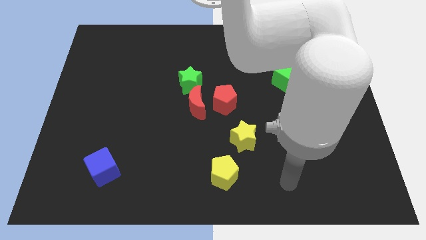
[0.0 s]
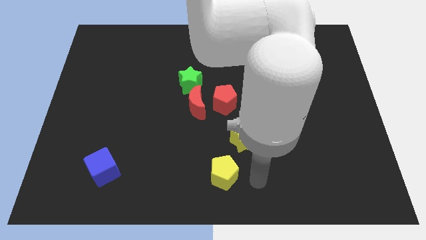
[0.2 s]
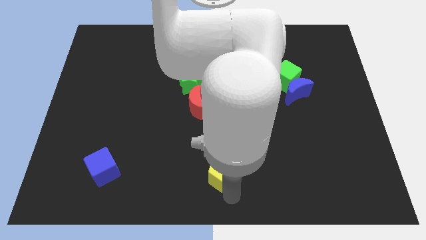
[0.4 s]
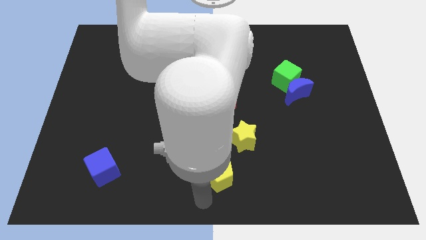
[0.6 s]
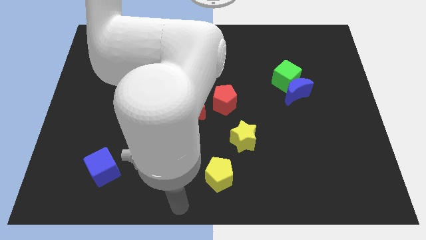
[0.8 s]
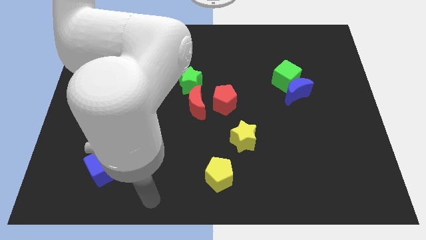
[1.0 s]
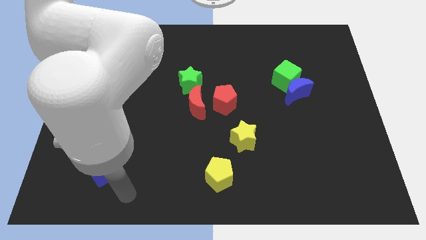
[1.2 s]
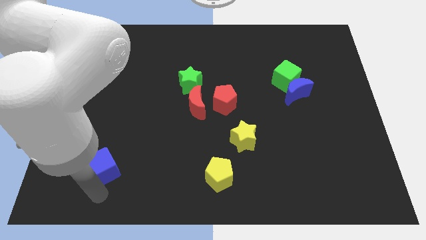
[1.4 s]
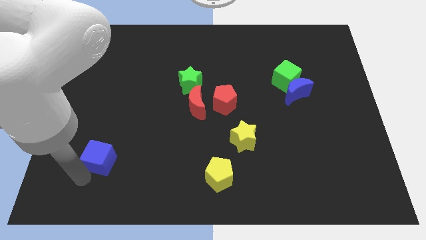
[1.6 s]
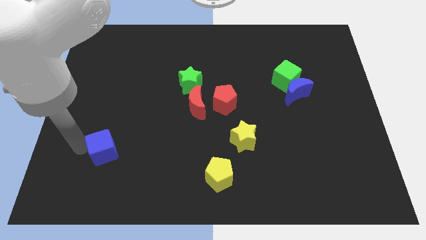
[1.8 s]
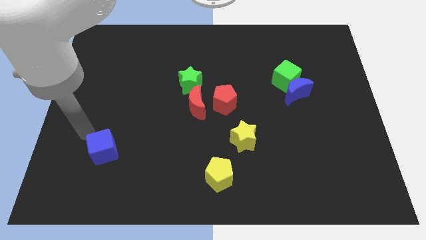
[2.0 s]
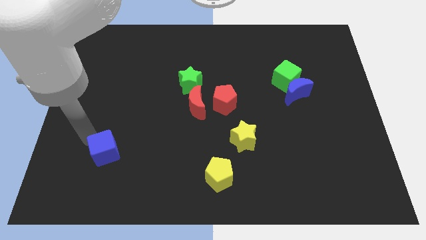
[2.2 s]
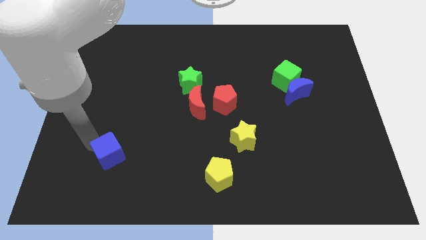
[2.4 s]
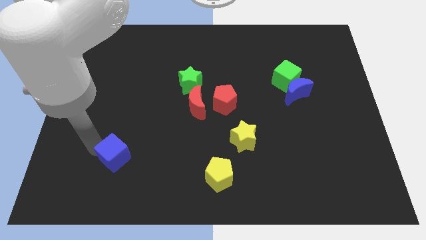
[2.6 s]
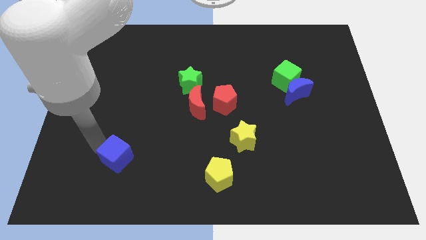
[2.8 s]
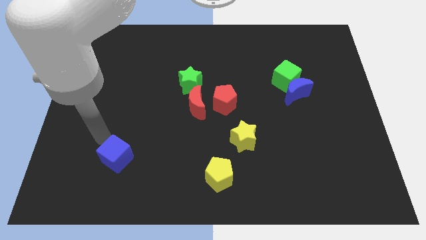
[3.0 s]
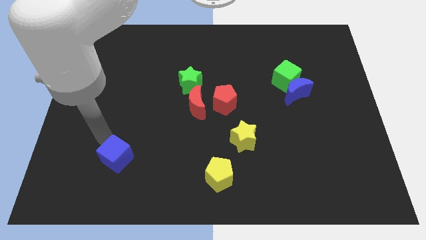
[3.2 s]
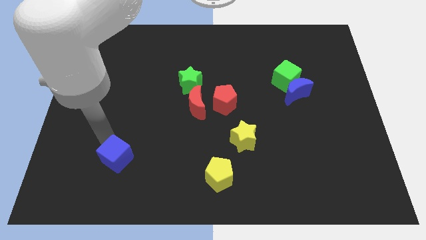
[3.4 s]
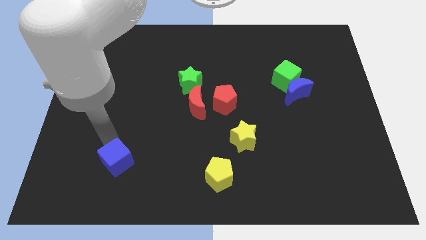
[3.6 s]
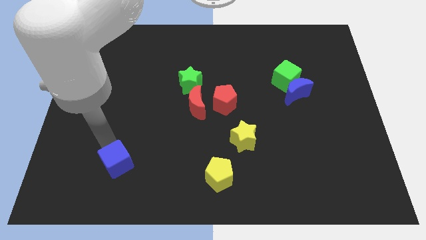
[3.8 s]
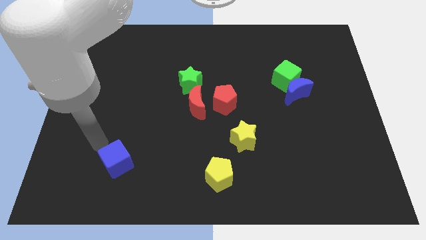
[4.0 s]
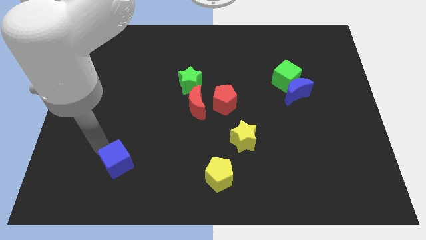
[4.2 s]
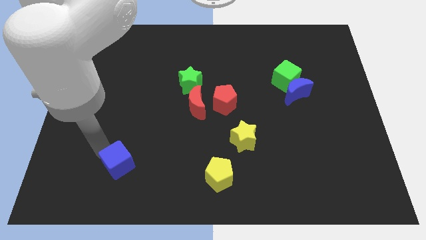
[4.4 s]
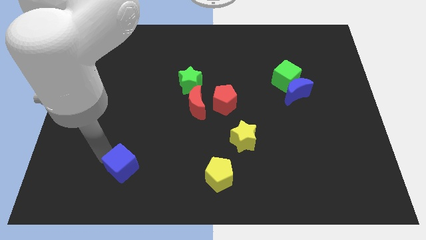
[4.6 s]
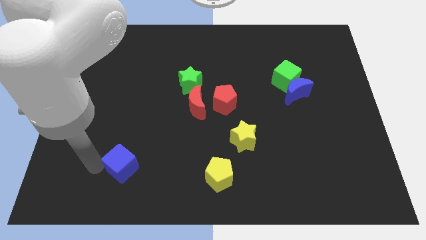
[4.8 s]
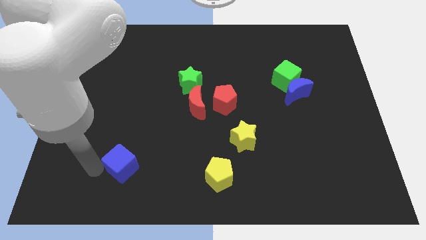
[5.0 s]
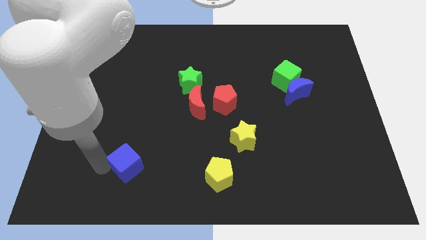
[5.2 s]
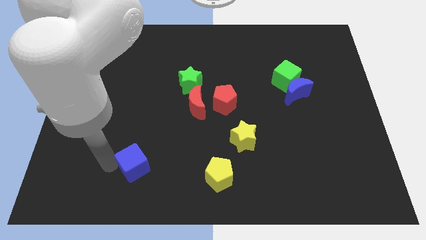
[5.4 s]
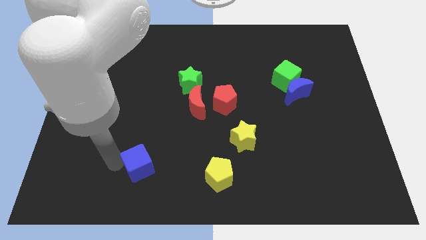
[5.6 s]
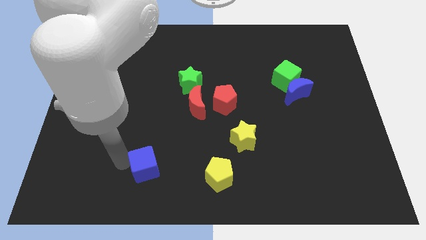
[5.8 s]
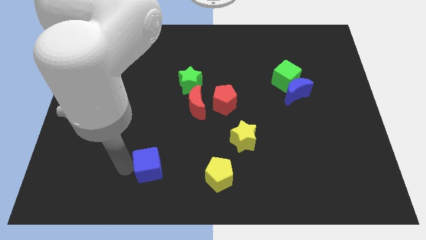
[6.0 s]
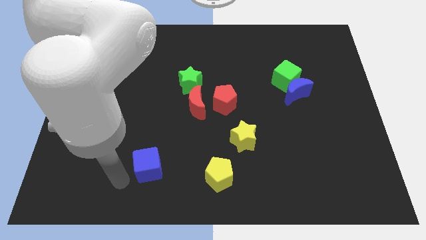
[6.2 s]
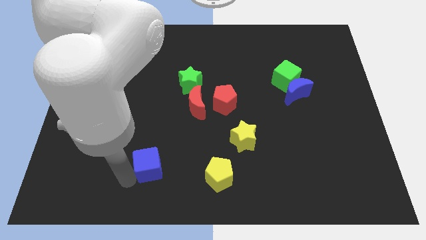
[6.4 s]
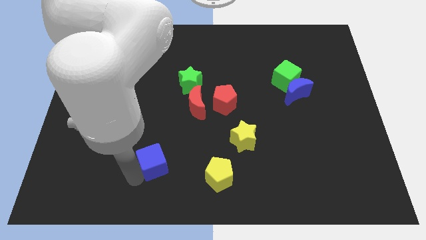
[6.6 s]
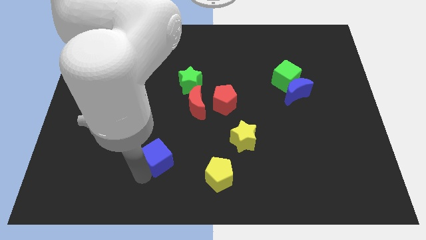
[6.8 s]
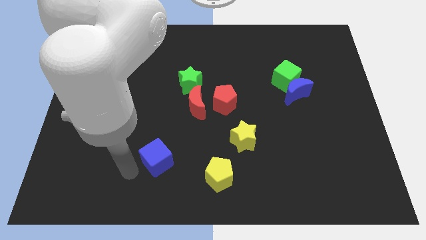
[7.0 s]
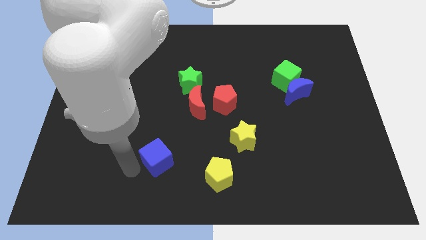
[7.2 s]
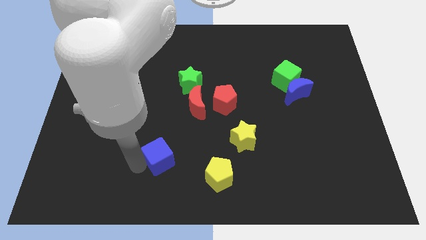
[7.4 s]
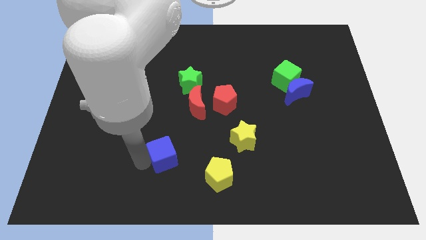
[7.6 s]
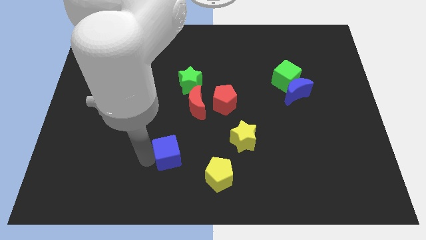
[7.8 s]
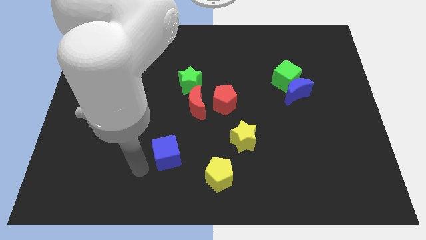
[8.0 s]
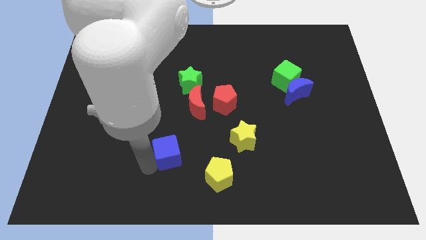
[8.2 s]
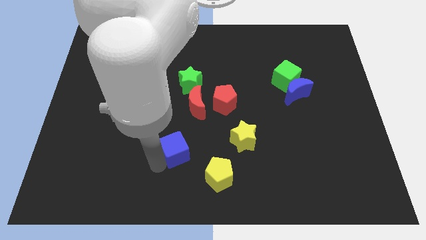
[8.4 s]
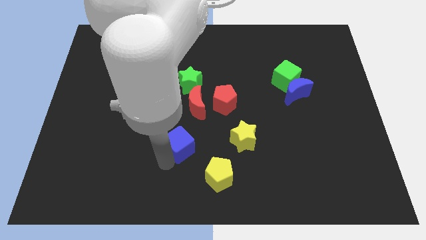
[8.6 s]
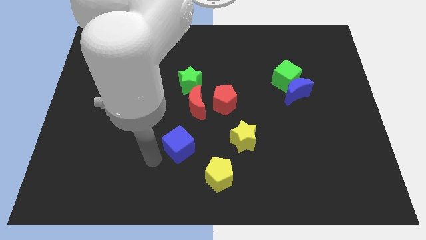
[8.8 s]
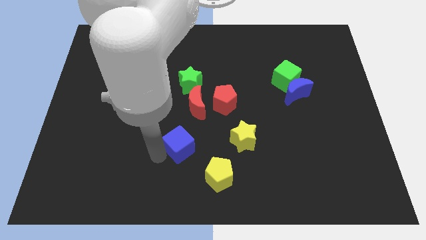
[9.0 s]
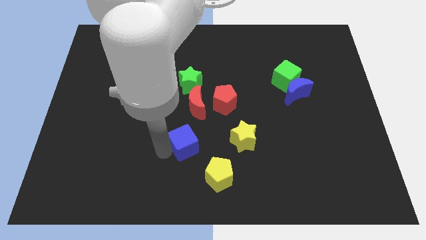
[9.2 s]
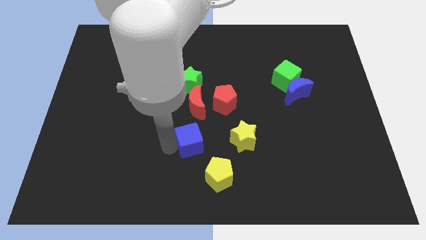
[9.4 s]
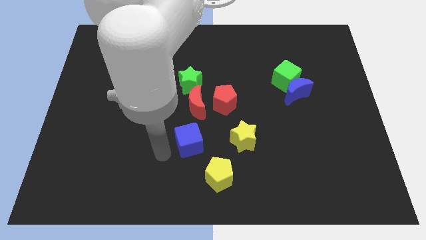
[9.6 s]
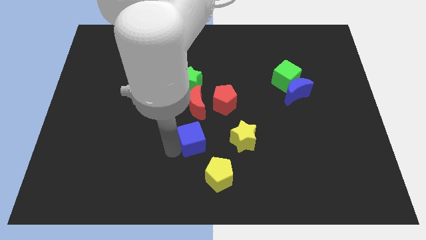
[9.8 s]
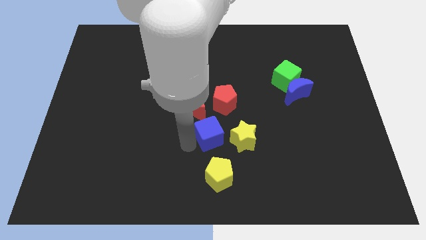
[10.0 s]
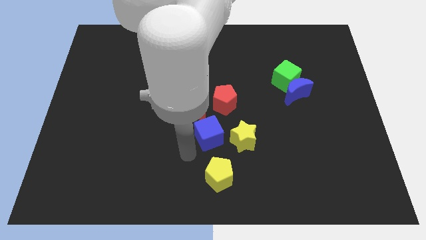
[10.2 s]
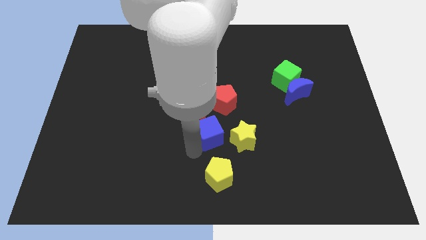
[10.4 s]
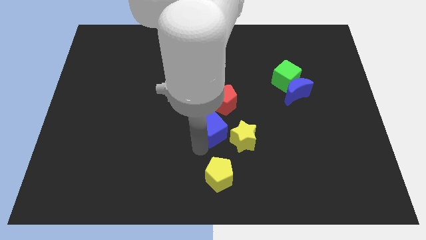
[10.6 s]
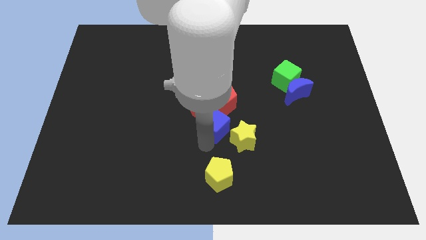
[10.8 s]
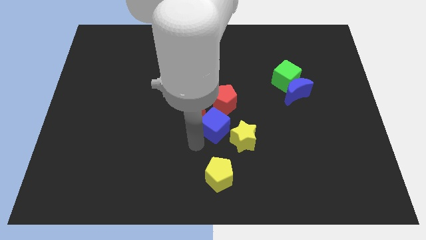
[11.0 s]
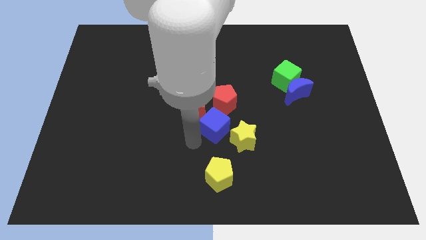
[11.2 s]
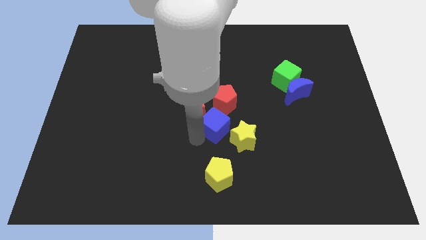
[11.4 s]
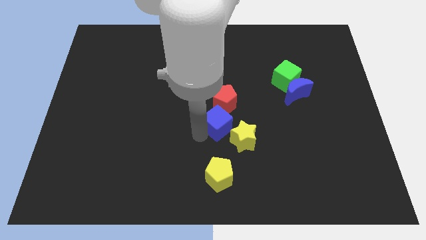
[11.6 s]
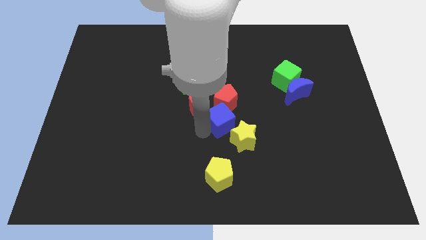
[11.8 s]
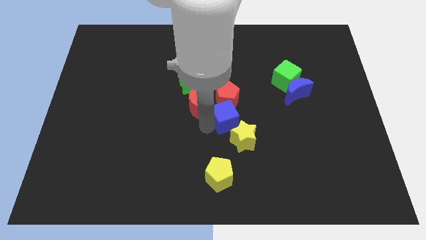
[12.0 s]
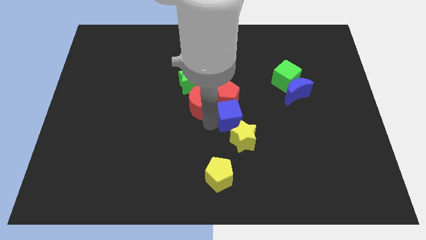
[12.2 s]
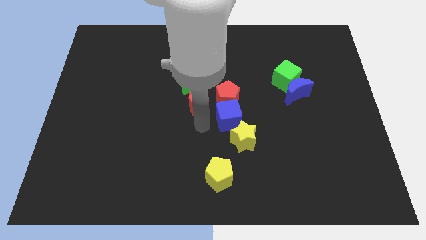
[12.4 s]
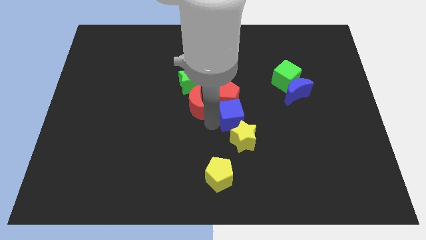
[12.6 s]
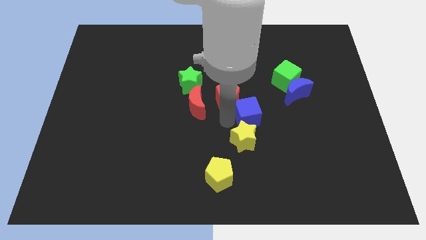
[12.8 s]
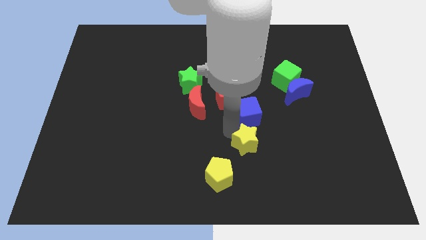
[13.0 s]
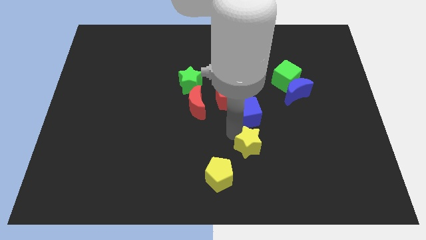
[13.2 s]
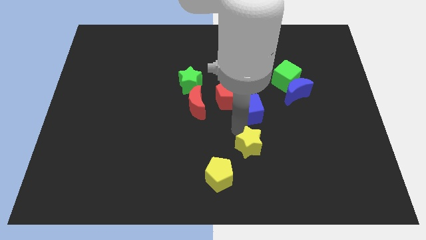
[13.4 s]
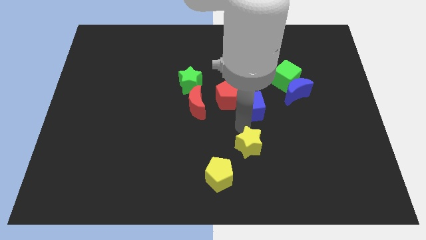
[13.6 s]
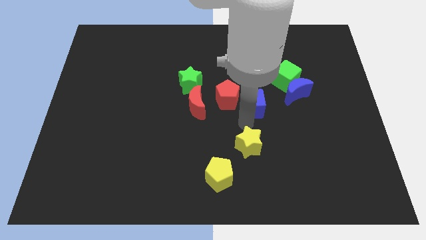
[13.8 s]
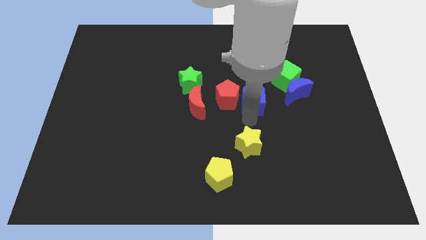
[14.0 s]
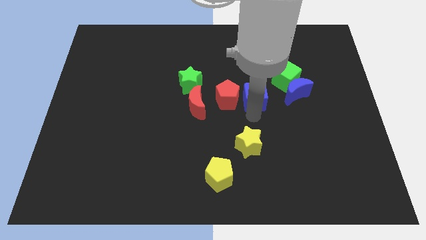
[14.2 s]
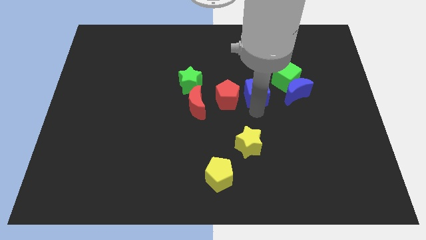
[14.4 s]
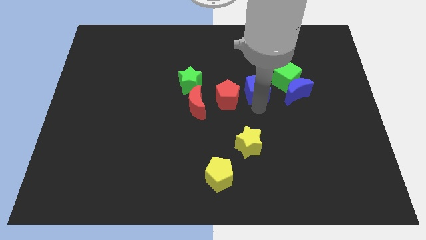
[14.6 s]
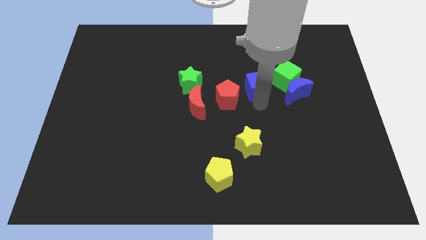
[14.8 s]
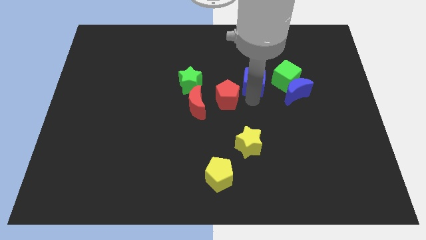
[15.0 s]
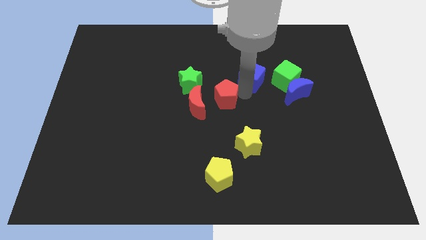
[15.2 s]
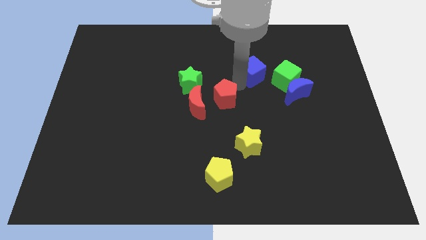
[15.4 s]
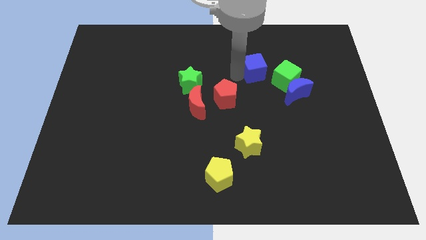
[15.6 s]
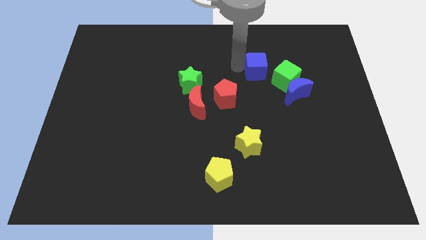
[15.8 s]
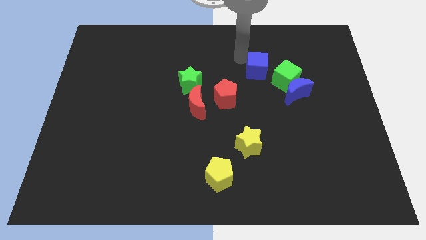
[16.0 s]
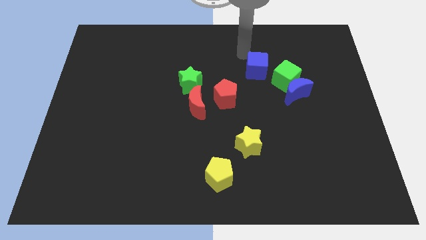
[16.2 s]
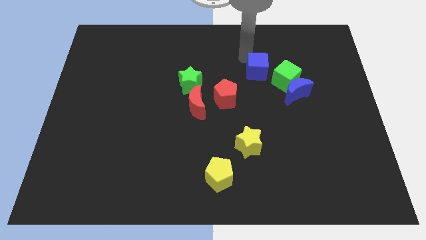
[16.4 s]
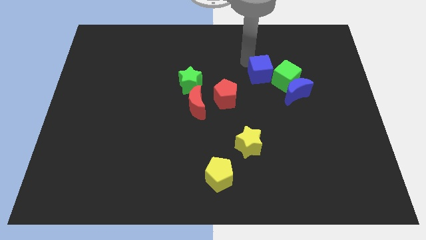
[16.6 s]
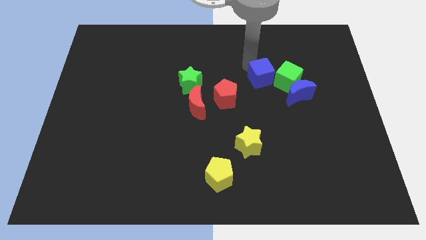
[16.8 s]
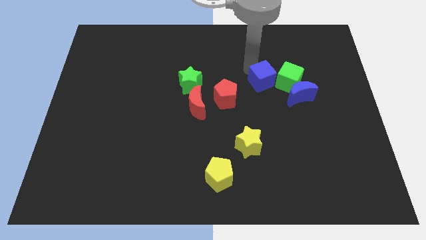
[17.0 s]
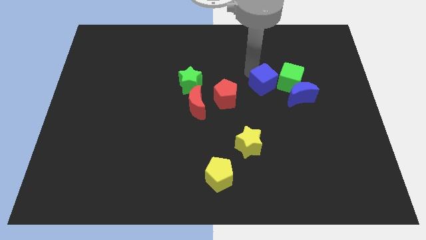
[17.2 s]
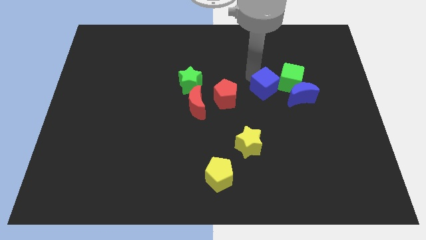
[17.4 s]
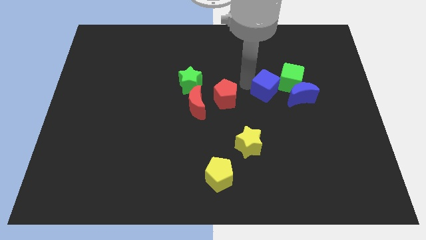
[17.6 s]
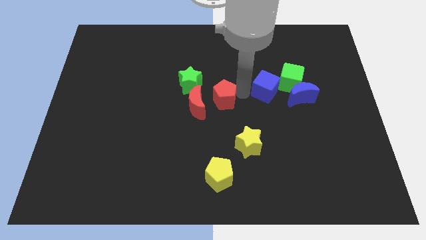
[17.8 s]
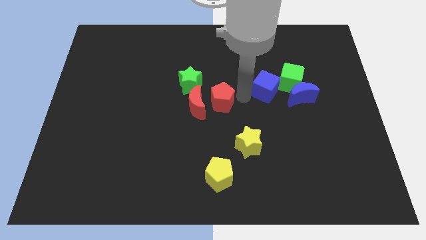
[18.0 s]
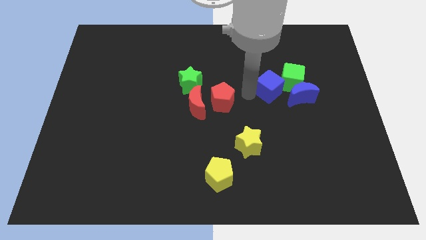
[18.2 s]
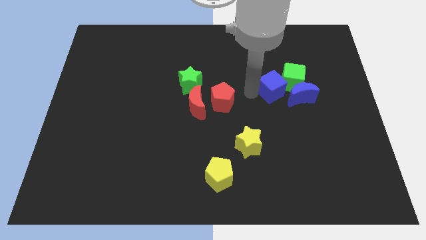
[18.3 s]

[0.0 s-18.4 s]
move the blue cube to the green cube
